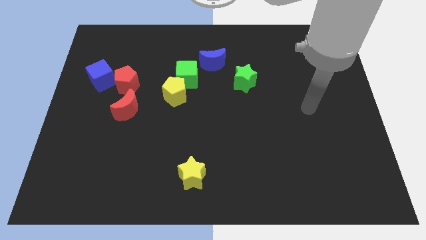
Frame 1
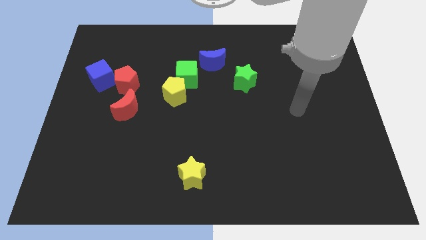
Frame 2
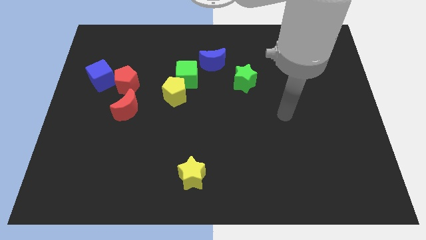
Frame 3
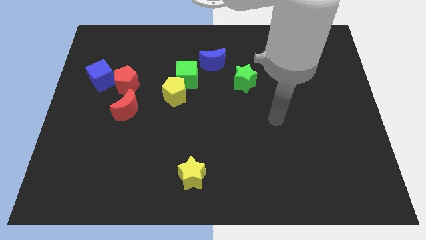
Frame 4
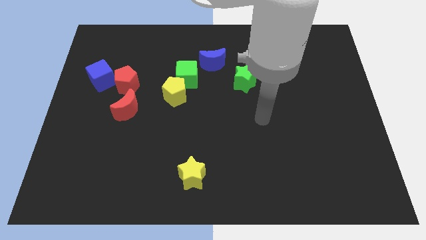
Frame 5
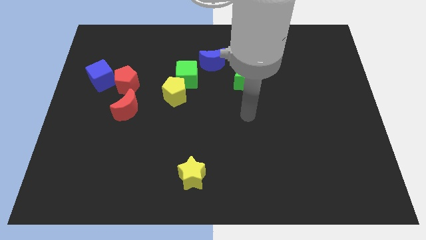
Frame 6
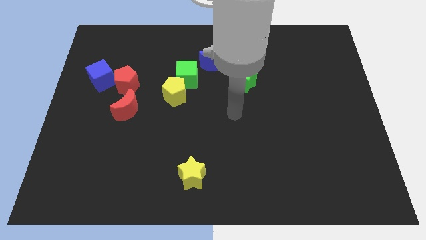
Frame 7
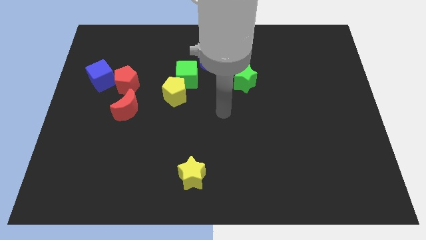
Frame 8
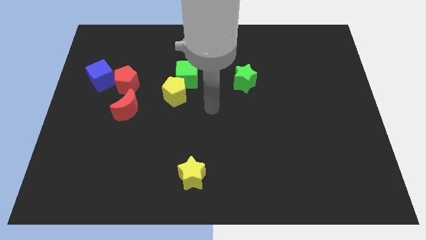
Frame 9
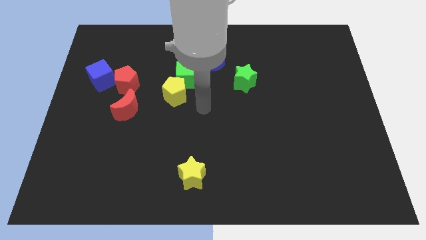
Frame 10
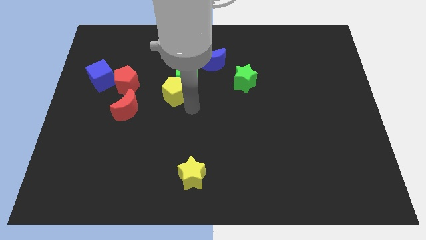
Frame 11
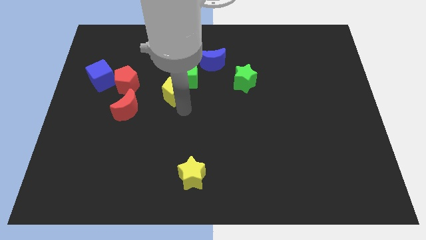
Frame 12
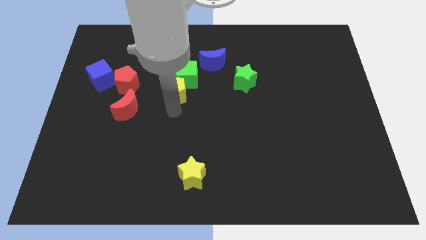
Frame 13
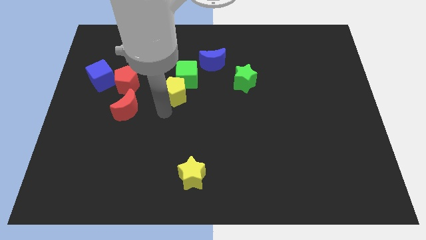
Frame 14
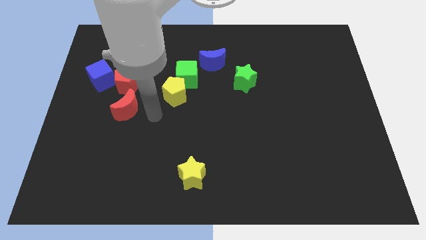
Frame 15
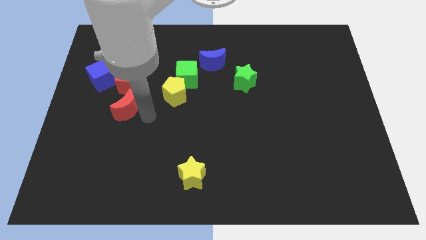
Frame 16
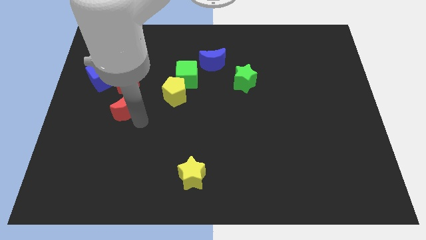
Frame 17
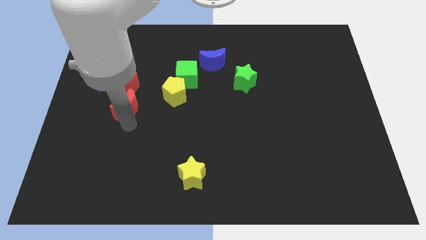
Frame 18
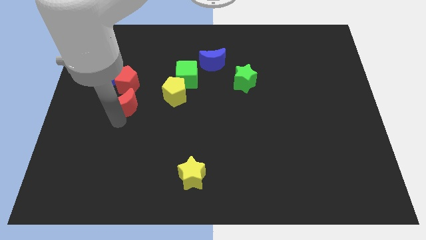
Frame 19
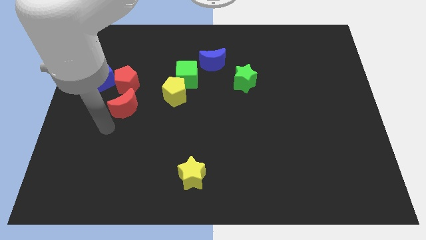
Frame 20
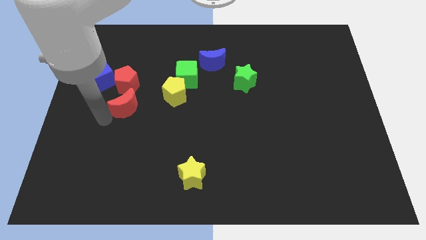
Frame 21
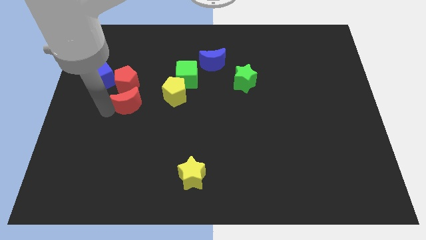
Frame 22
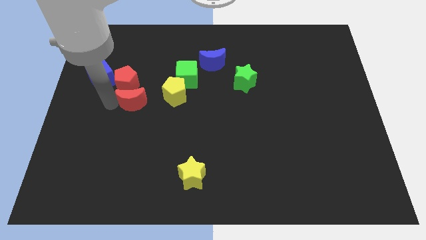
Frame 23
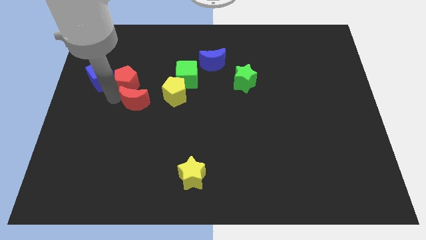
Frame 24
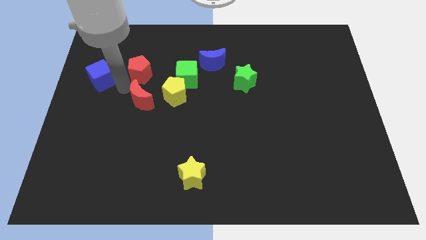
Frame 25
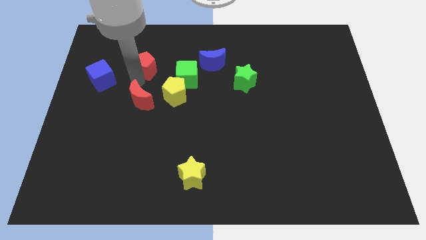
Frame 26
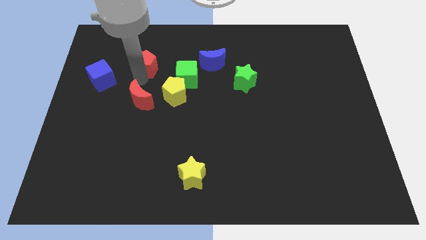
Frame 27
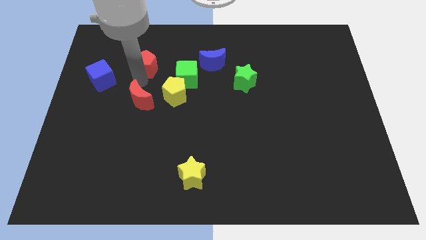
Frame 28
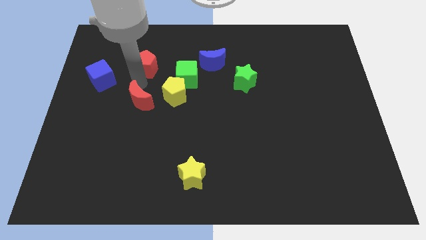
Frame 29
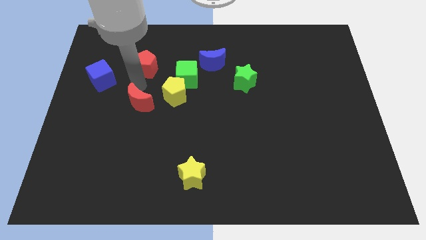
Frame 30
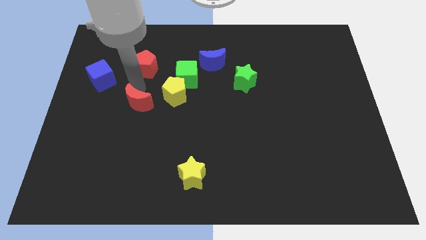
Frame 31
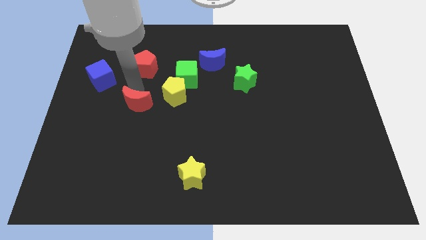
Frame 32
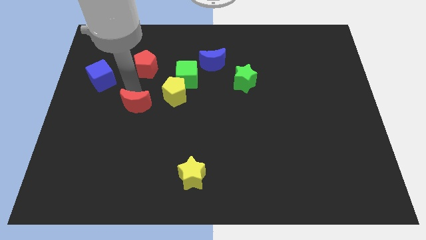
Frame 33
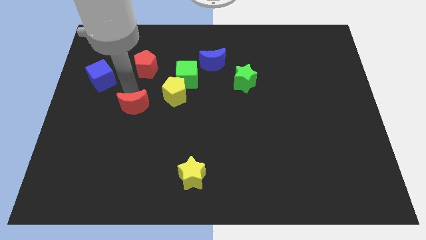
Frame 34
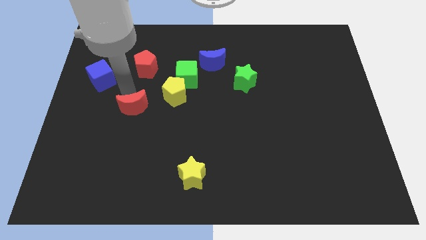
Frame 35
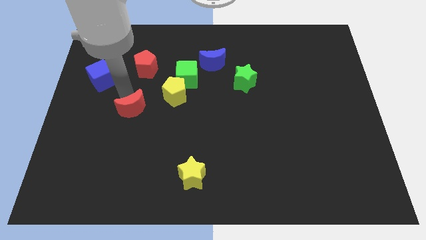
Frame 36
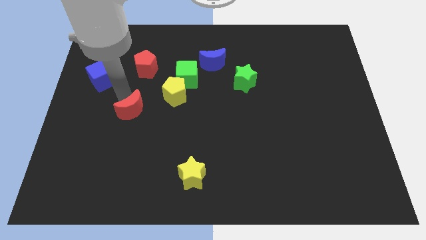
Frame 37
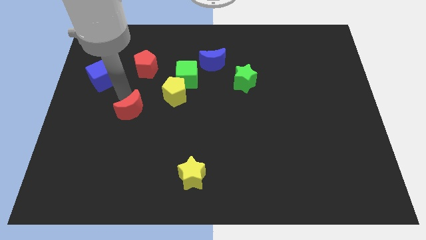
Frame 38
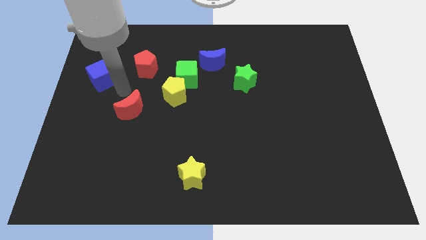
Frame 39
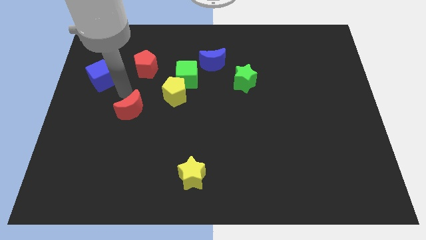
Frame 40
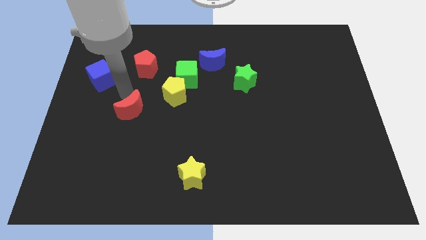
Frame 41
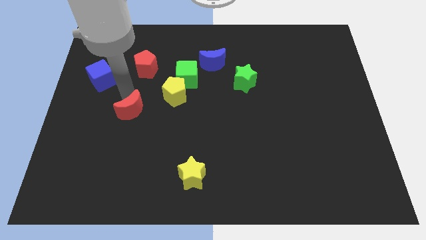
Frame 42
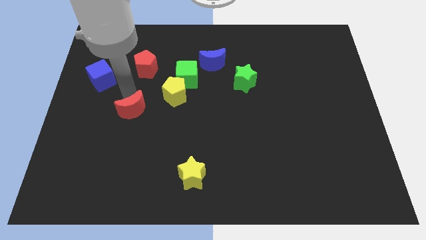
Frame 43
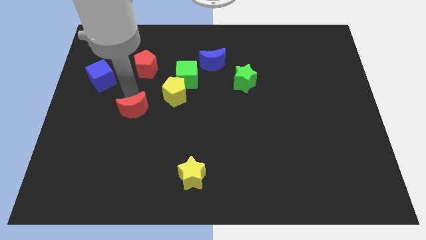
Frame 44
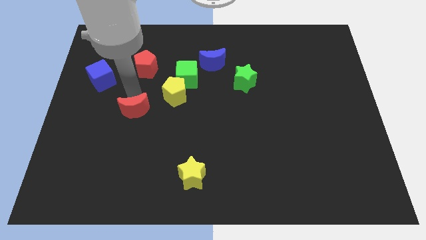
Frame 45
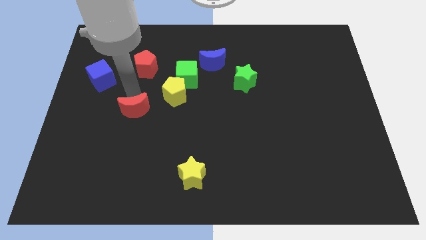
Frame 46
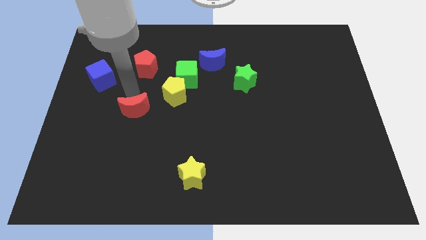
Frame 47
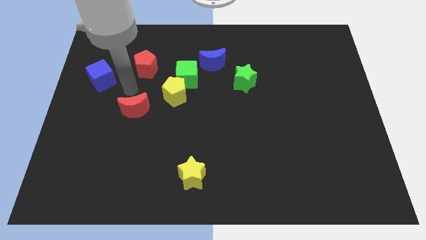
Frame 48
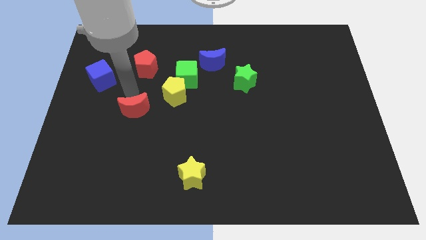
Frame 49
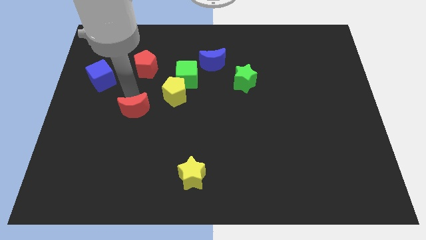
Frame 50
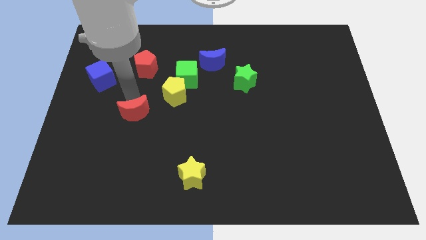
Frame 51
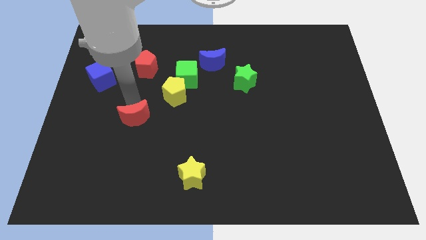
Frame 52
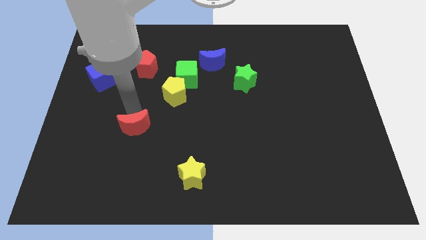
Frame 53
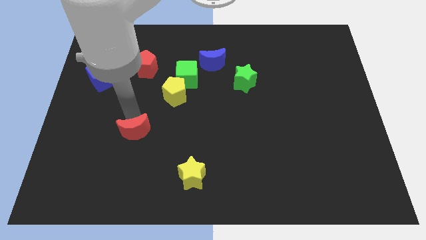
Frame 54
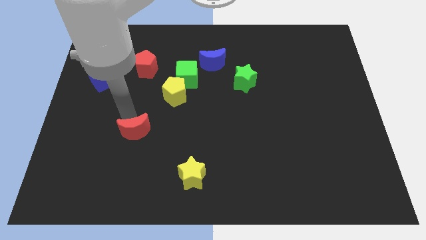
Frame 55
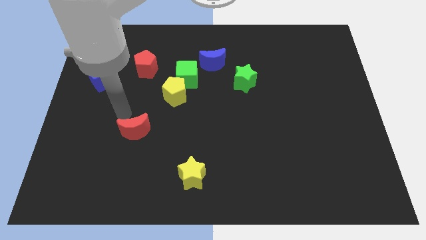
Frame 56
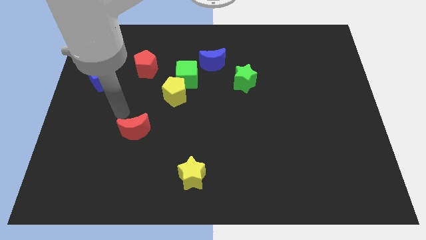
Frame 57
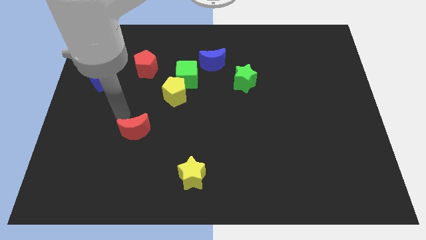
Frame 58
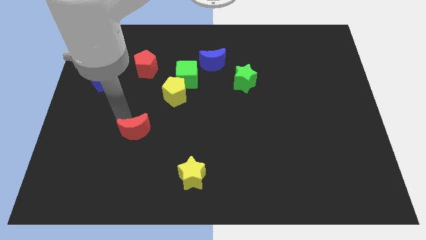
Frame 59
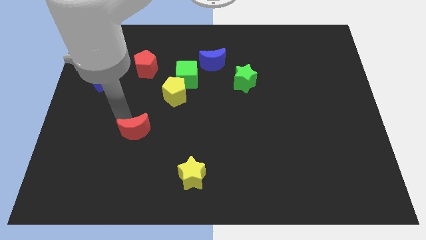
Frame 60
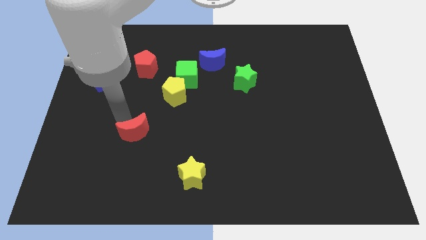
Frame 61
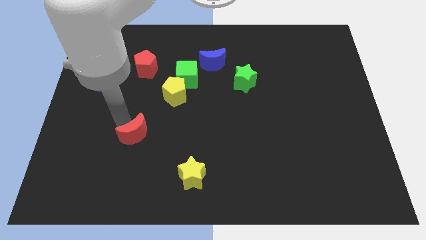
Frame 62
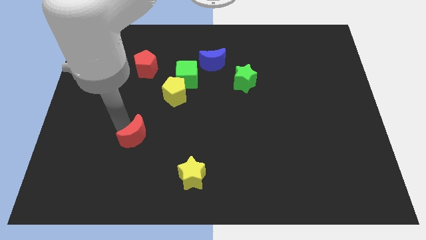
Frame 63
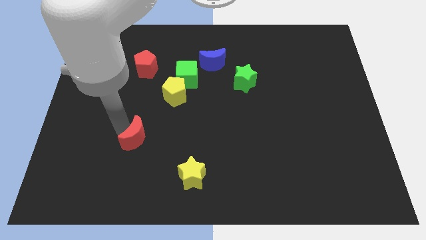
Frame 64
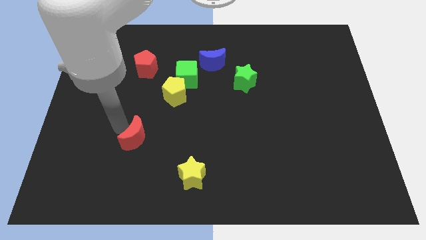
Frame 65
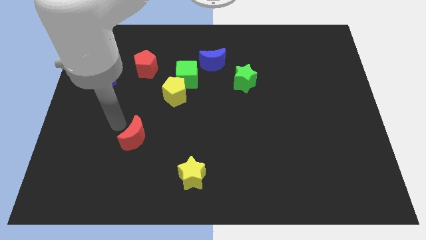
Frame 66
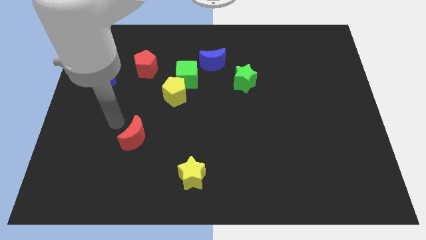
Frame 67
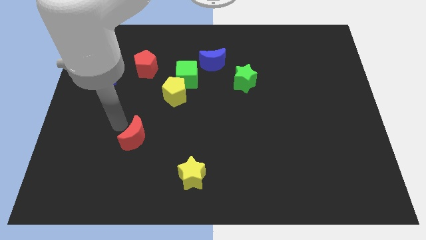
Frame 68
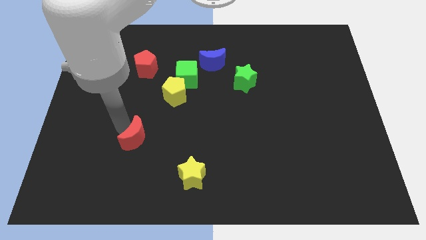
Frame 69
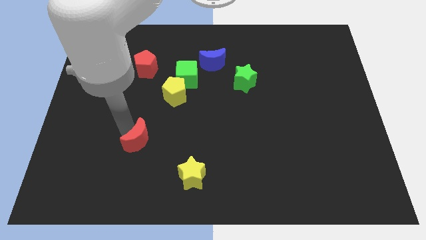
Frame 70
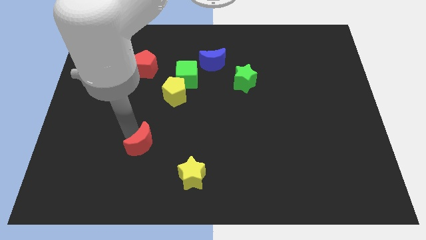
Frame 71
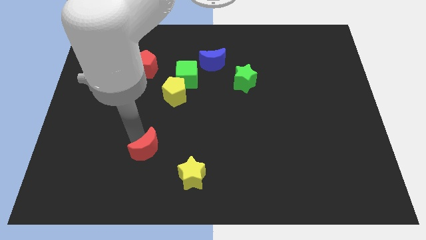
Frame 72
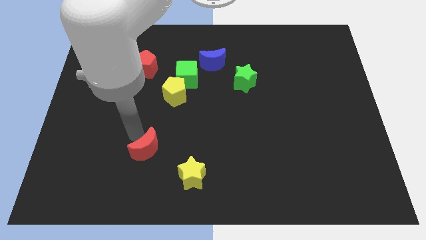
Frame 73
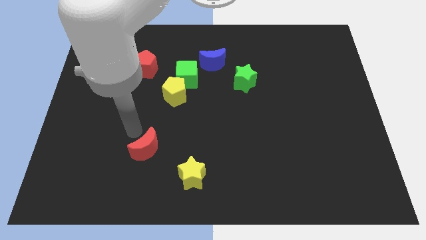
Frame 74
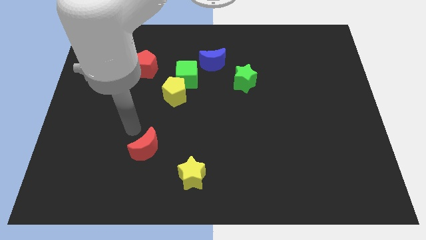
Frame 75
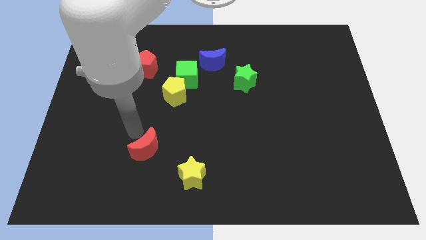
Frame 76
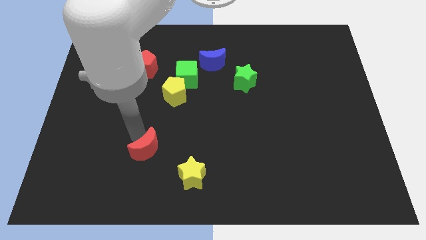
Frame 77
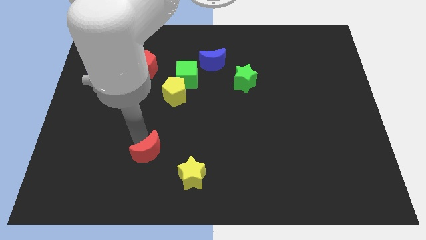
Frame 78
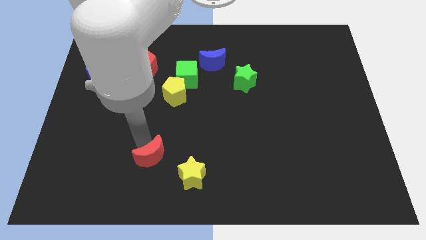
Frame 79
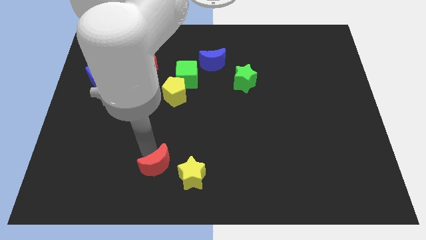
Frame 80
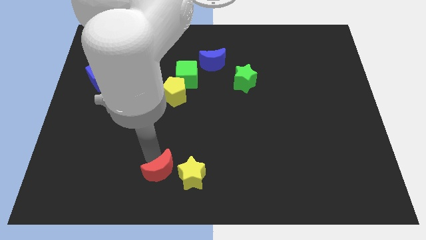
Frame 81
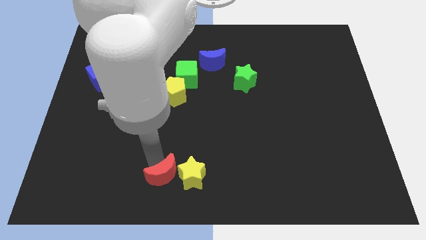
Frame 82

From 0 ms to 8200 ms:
push the red moon to the bottom side
